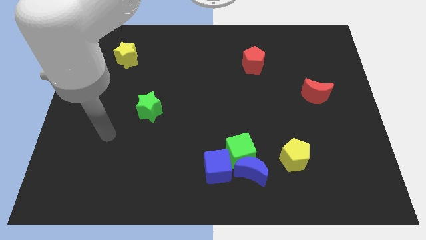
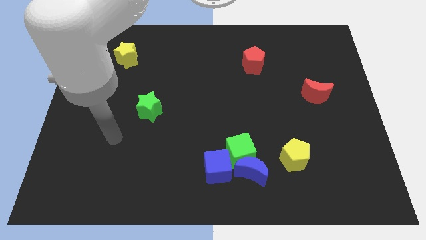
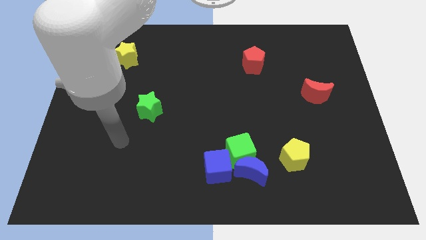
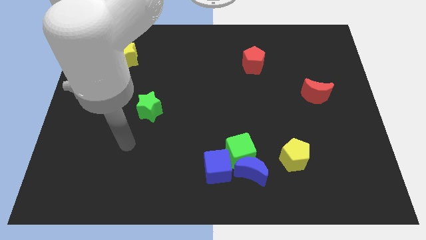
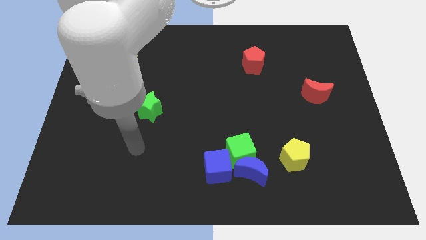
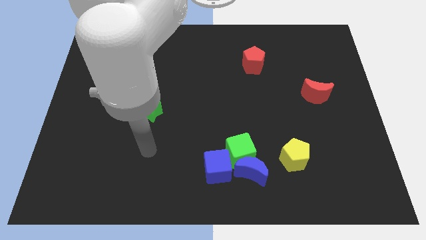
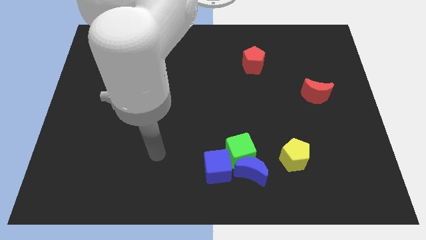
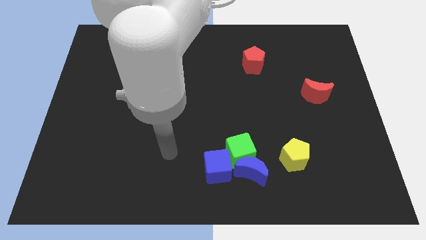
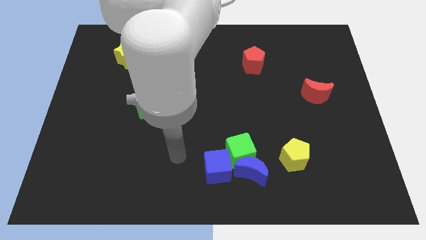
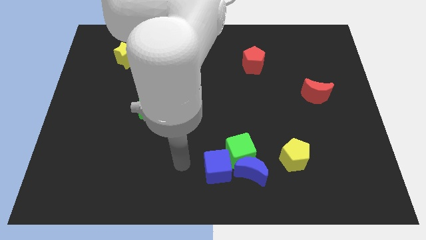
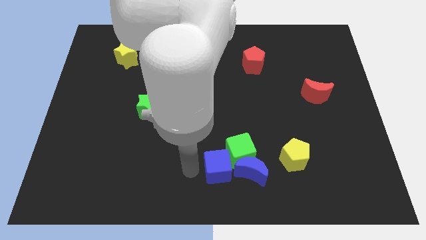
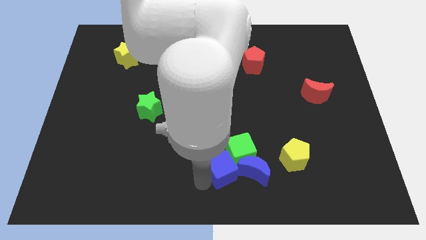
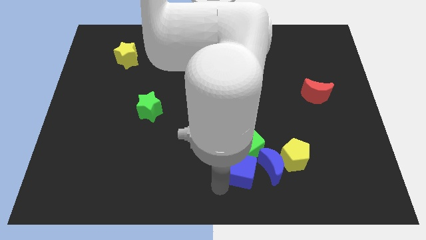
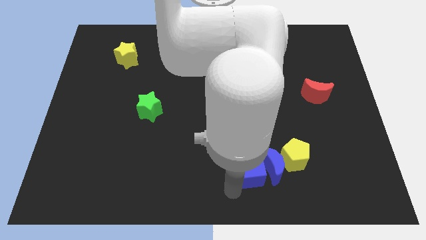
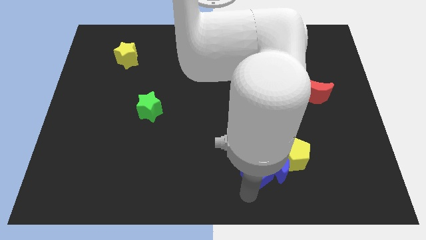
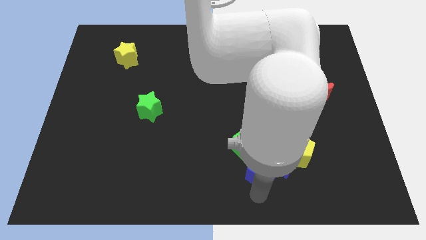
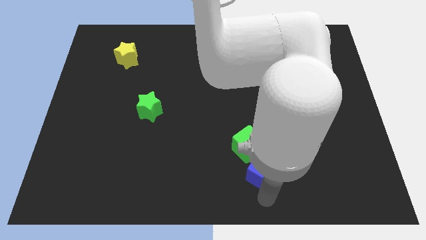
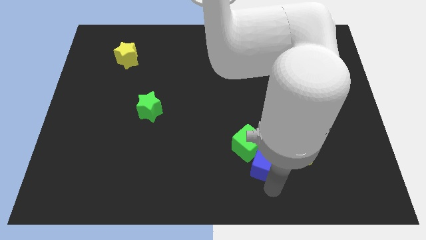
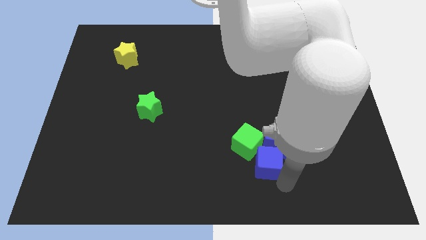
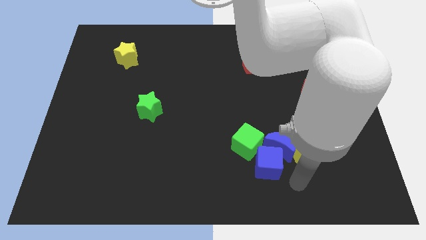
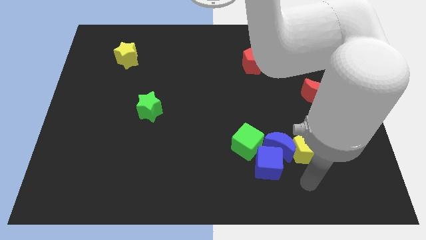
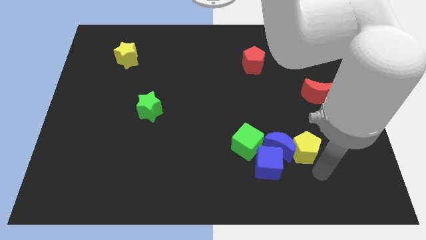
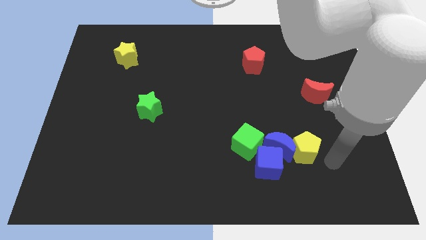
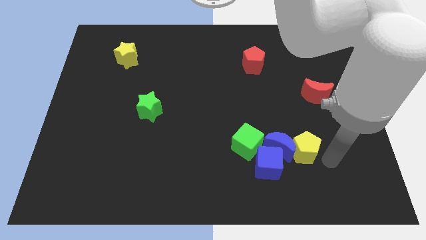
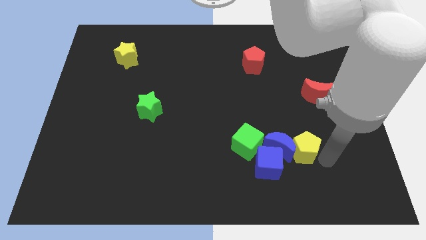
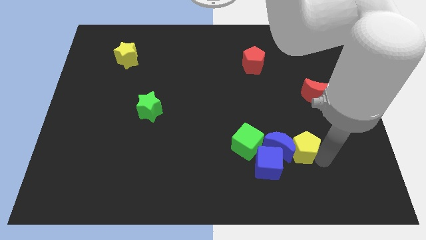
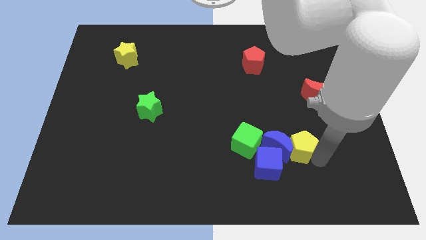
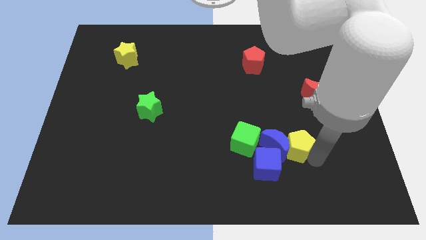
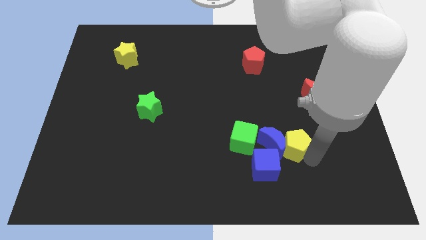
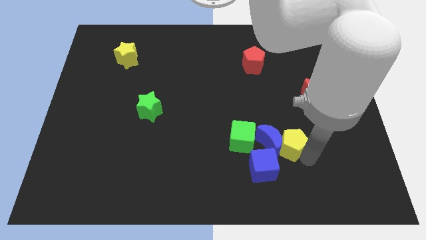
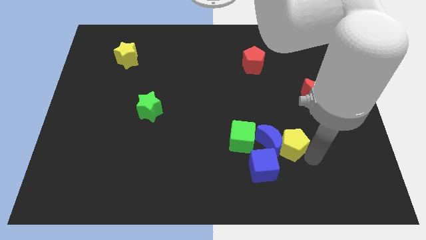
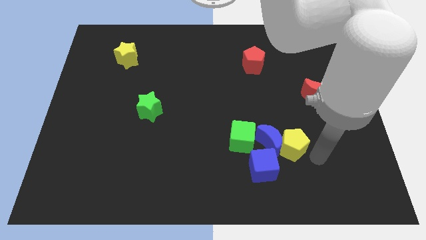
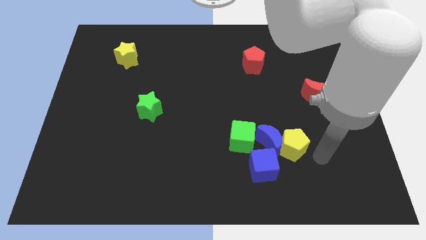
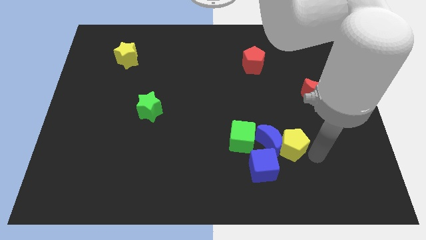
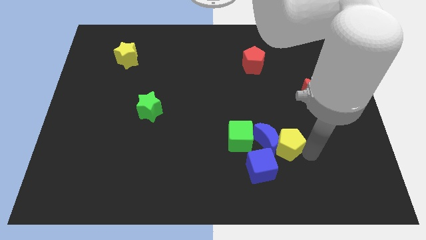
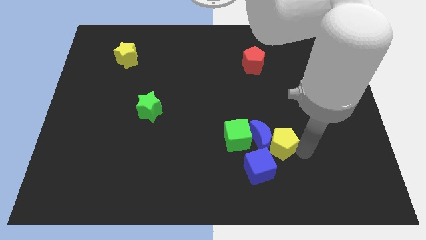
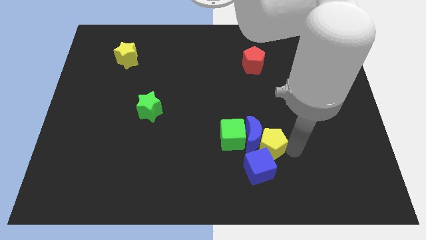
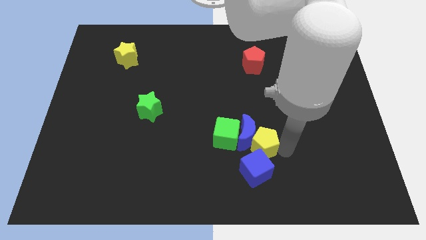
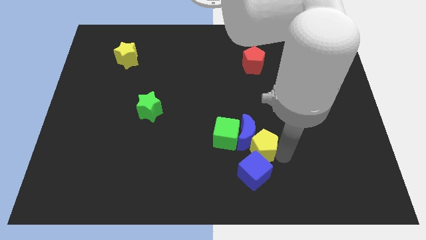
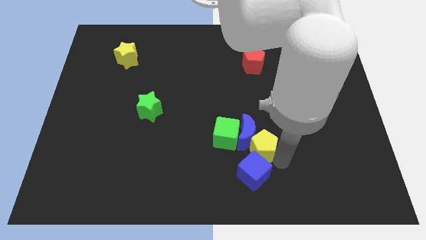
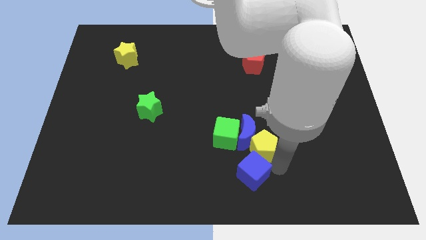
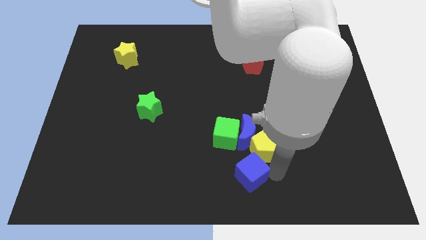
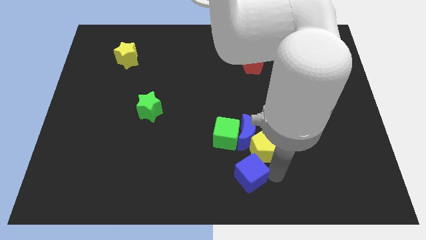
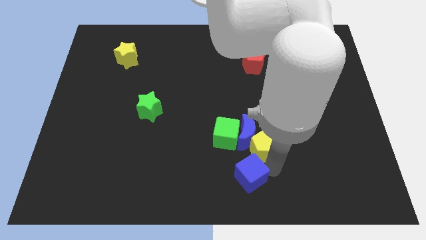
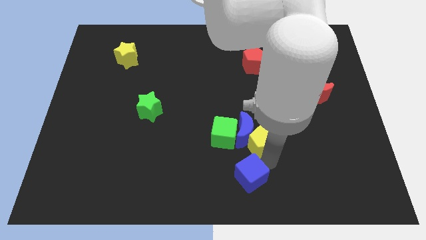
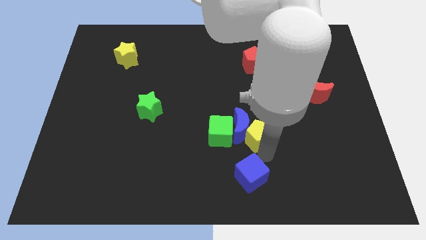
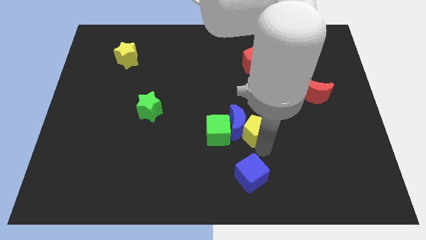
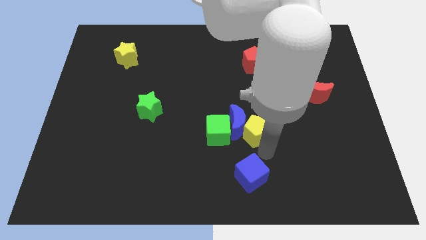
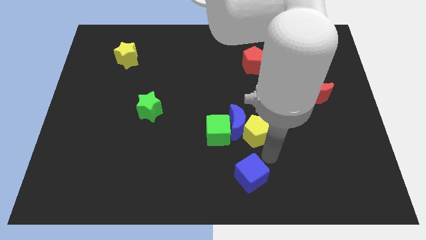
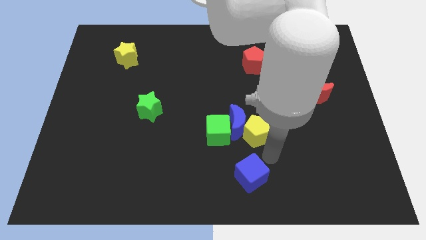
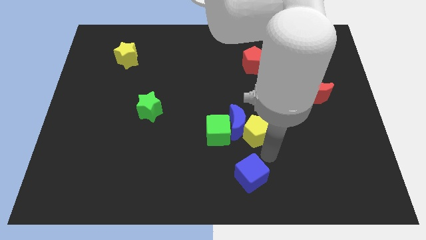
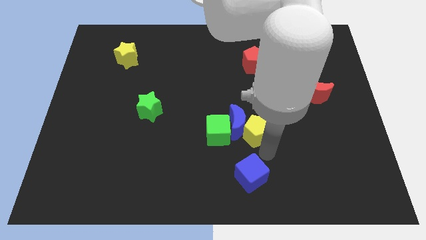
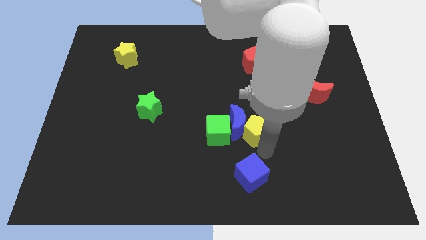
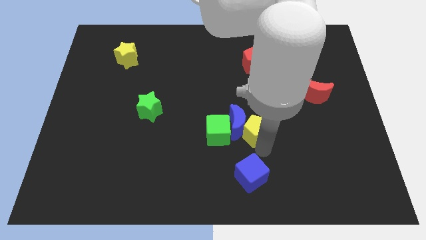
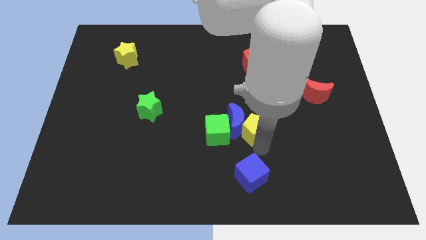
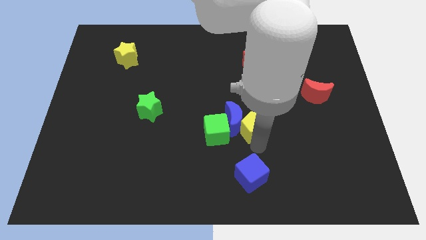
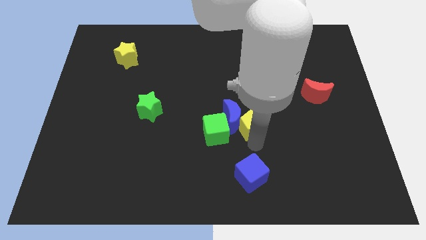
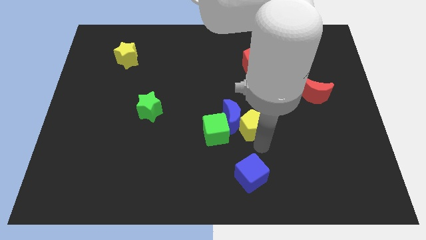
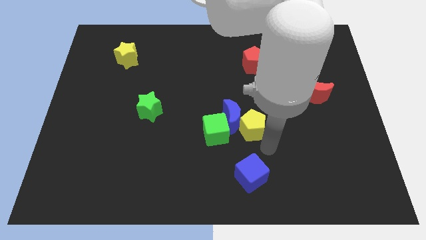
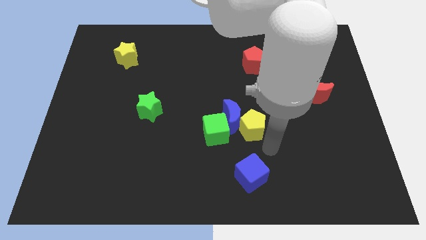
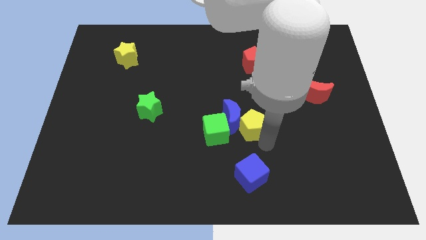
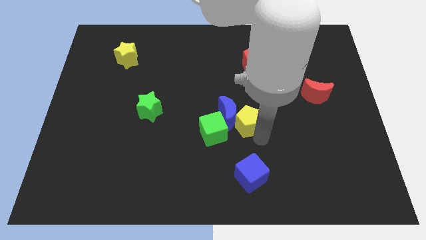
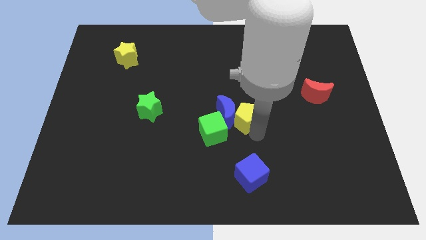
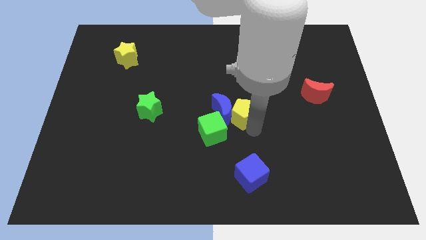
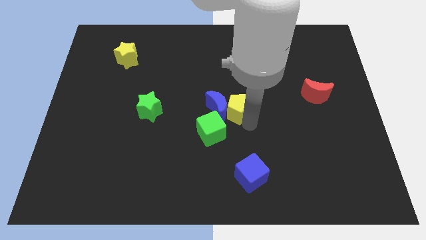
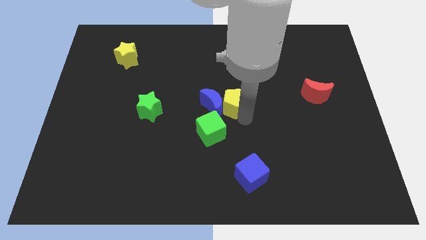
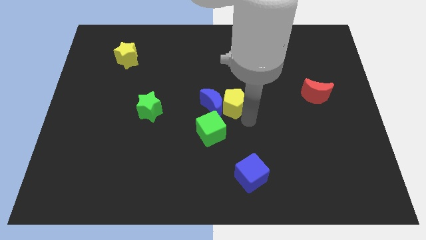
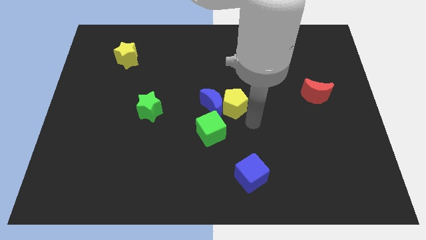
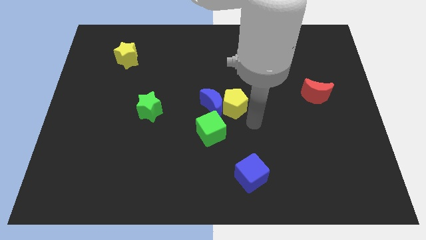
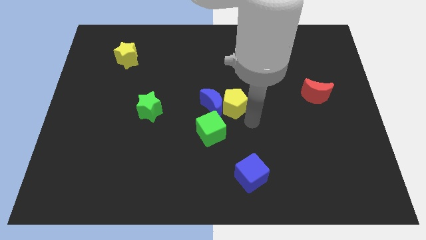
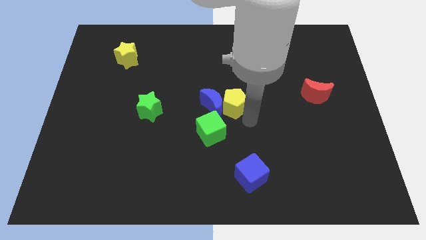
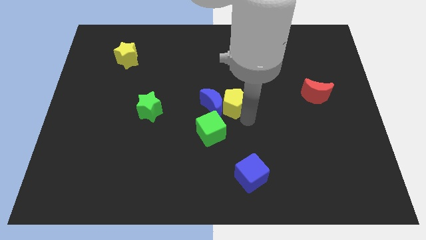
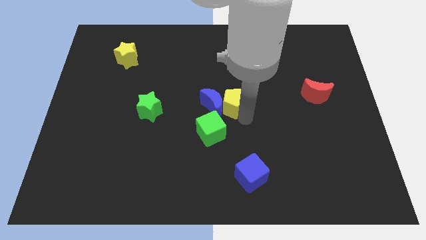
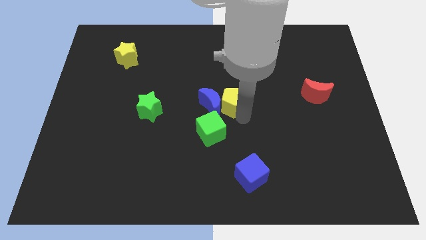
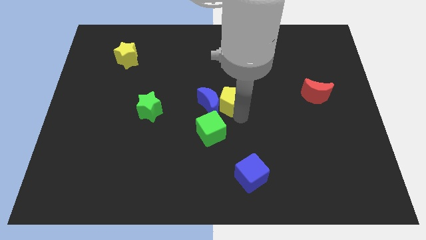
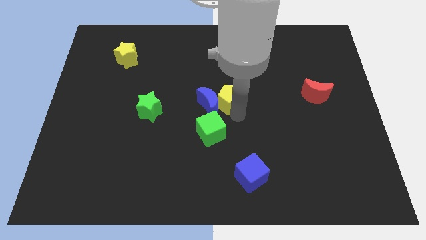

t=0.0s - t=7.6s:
push the yellow pentagon diagonally up and to the left

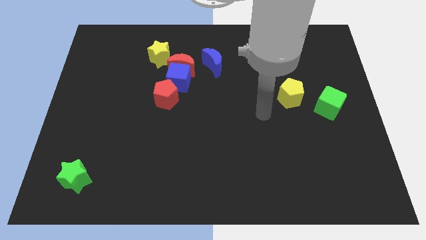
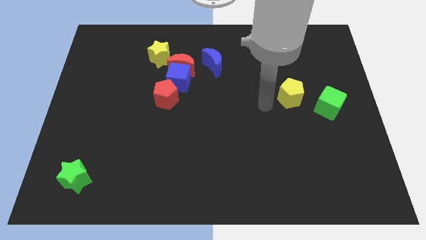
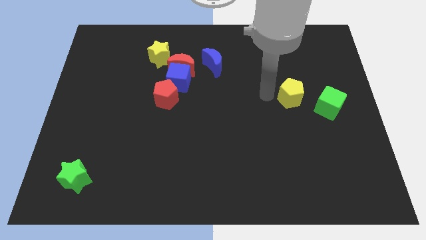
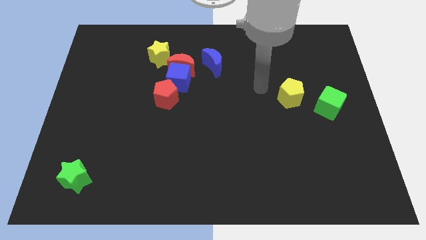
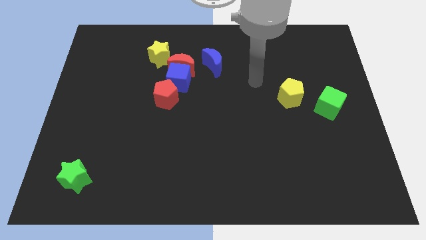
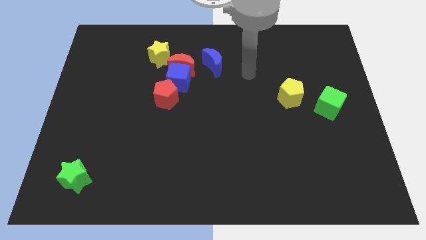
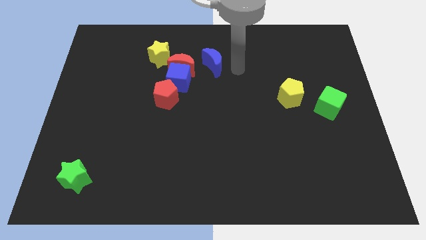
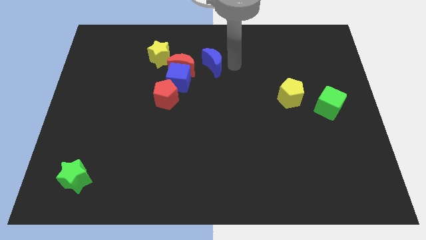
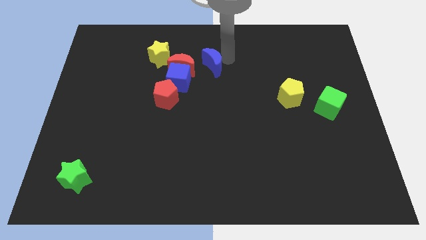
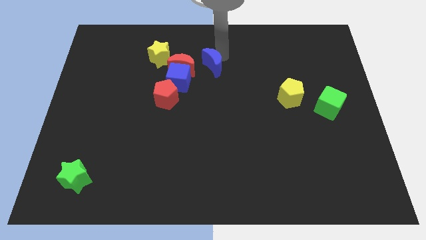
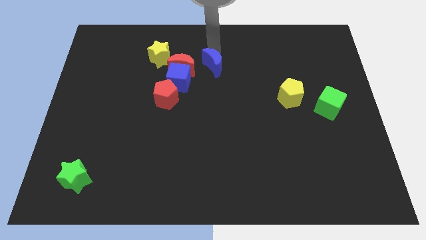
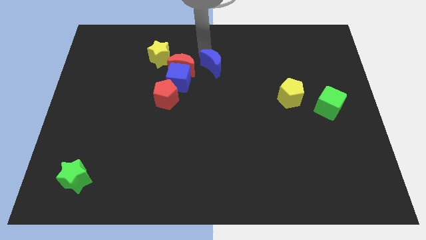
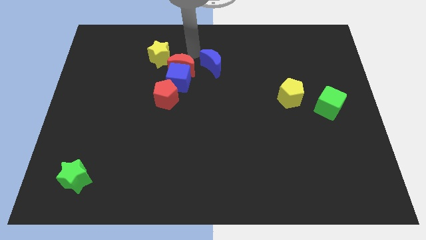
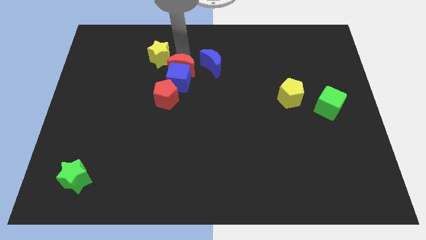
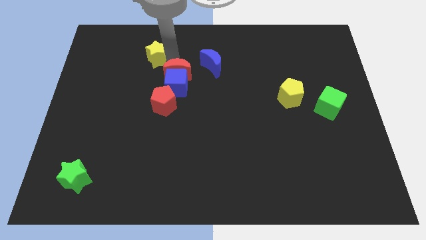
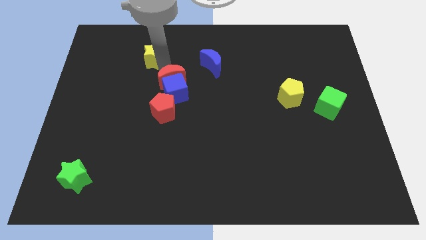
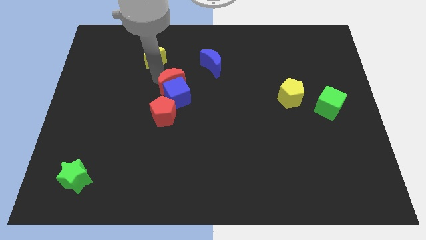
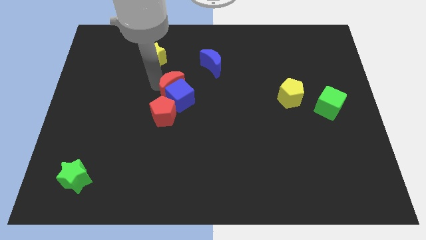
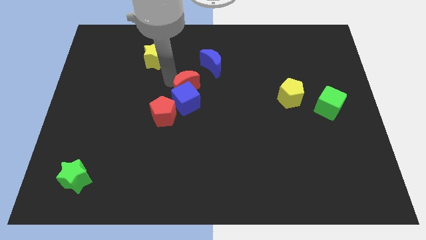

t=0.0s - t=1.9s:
move the blue cube a little bit down
